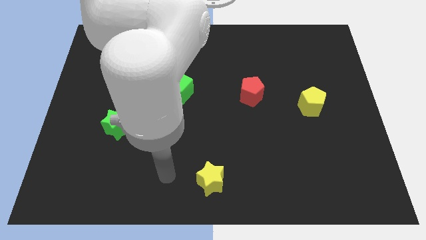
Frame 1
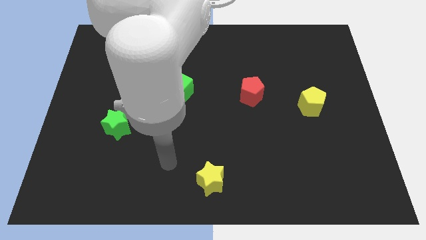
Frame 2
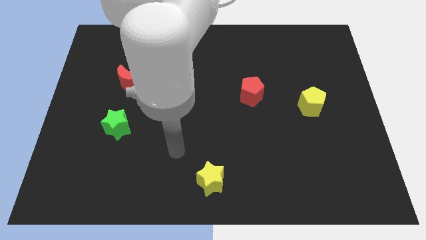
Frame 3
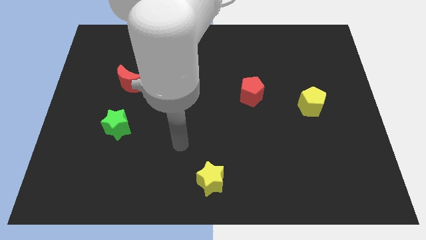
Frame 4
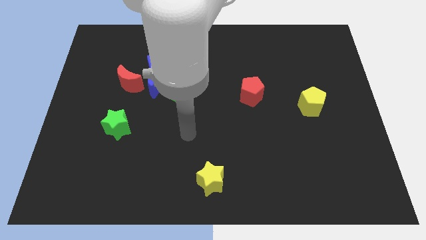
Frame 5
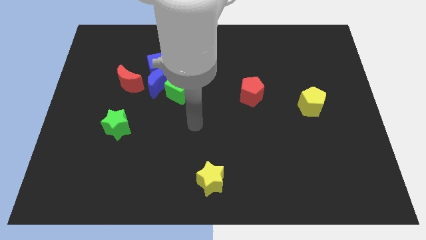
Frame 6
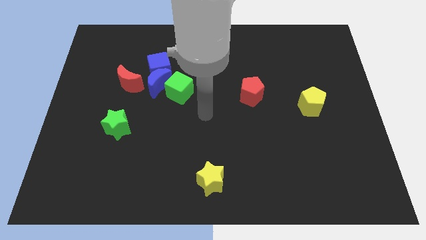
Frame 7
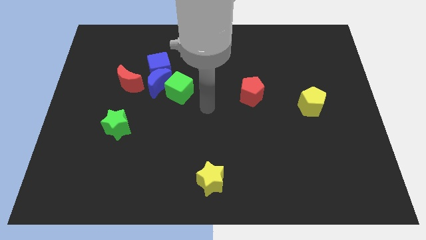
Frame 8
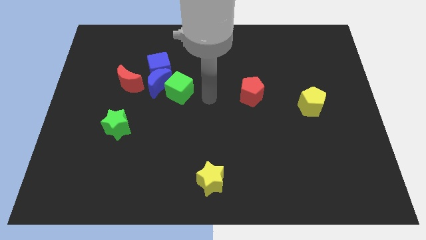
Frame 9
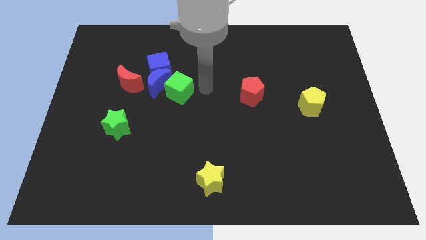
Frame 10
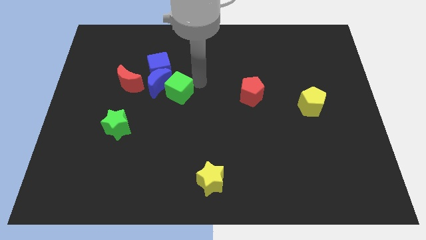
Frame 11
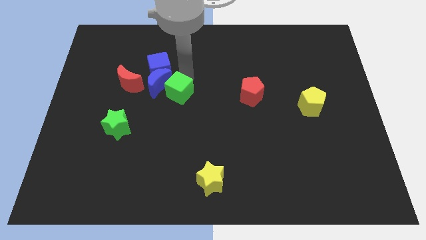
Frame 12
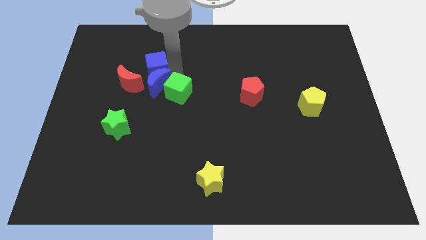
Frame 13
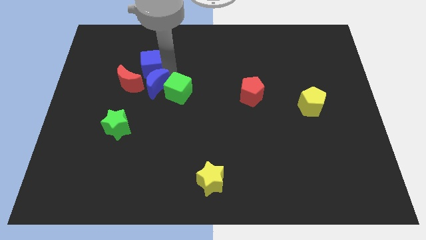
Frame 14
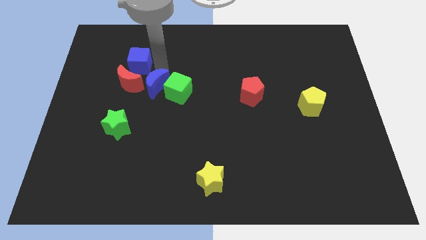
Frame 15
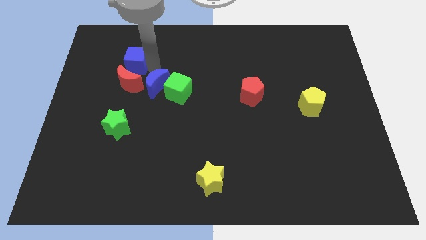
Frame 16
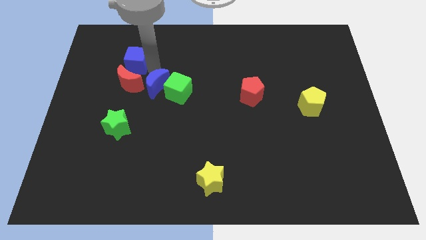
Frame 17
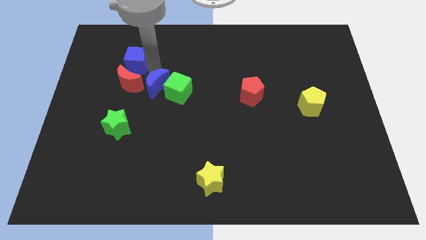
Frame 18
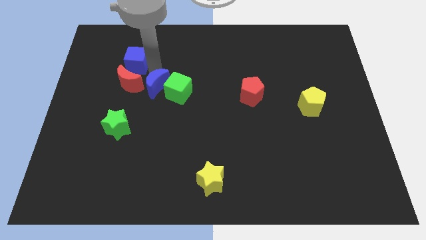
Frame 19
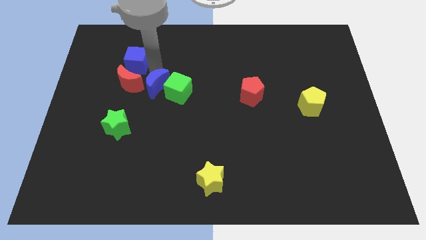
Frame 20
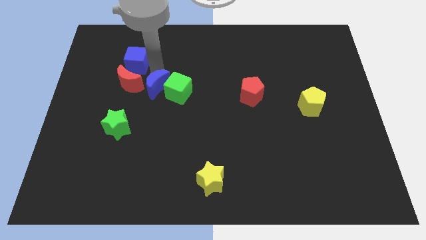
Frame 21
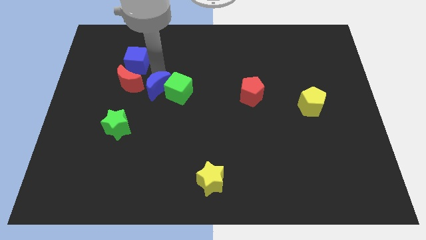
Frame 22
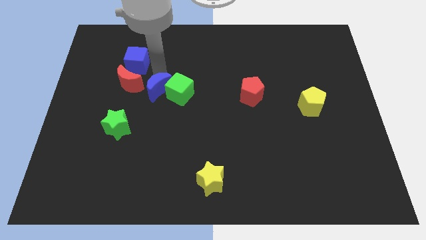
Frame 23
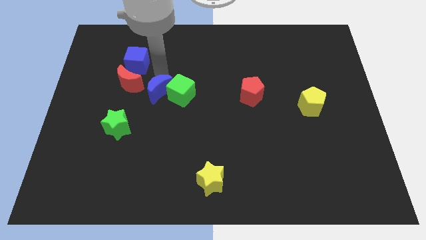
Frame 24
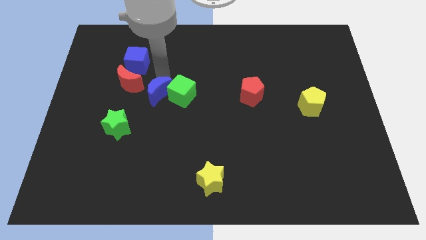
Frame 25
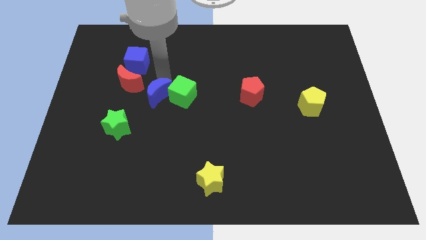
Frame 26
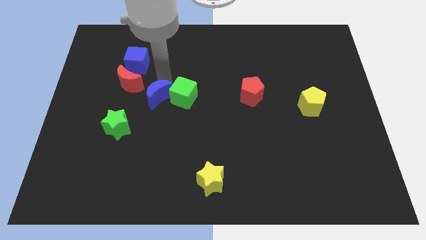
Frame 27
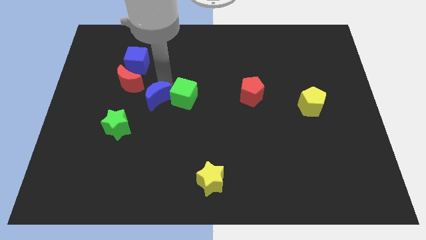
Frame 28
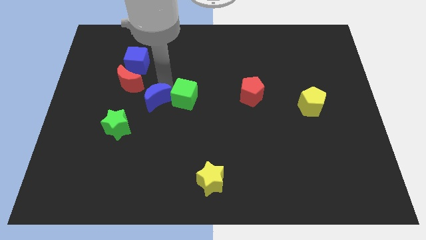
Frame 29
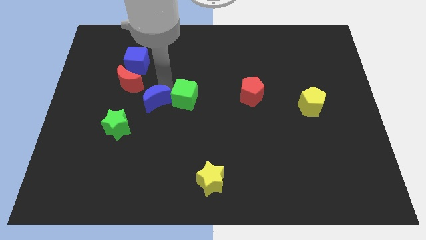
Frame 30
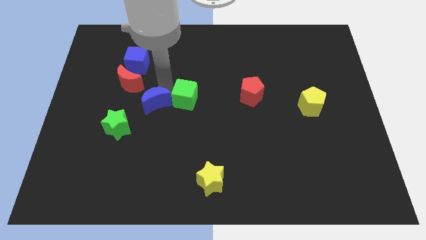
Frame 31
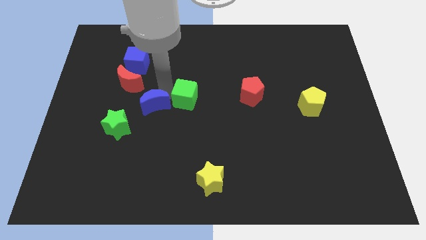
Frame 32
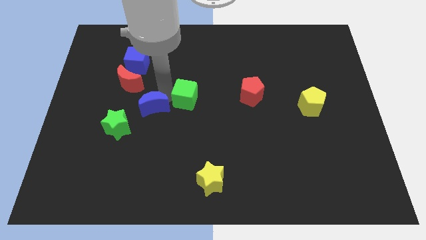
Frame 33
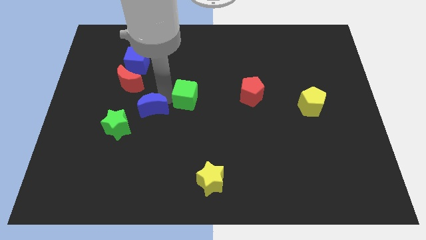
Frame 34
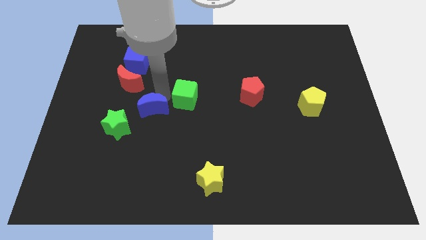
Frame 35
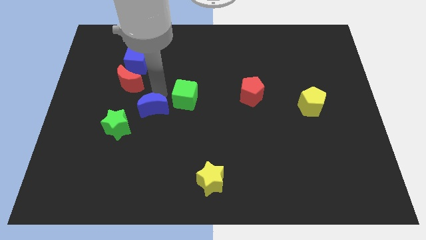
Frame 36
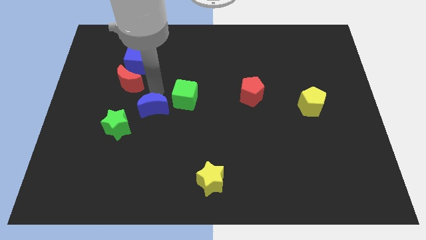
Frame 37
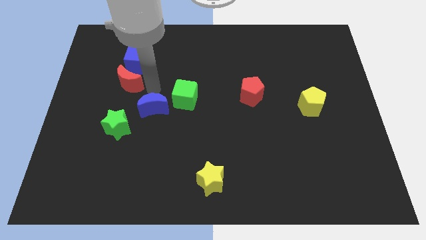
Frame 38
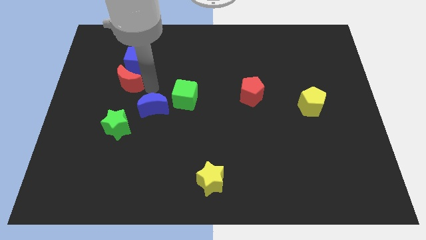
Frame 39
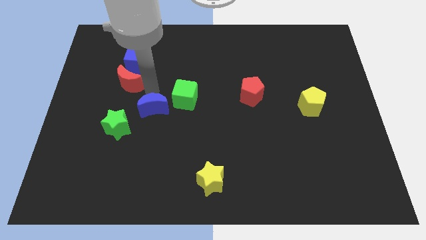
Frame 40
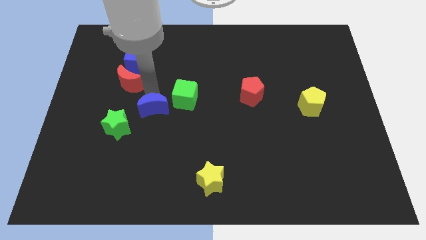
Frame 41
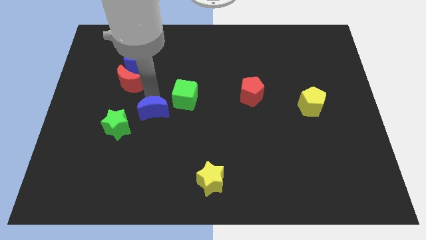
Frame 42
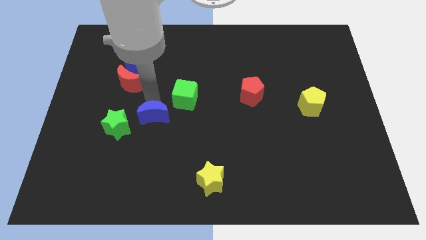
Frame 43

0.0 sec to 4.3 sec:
move the blue moon away from the clump

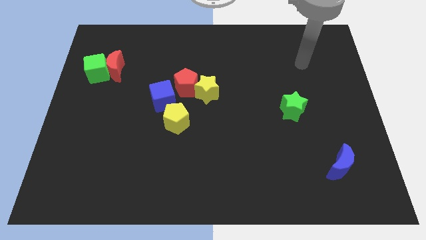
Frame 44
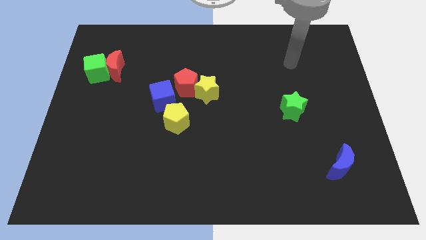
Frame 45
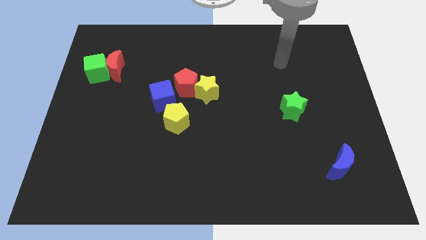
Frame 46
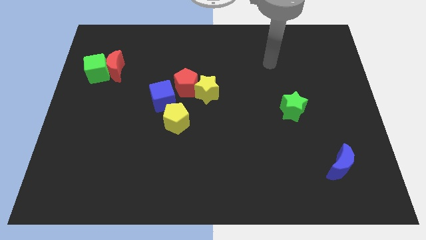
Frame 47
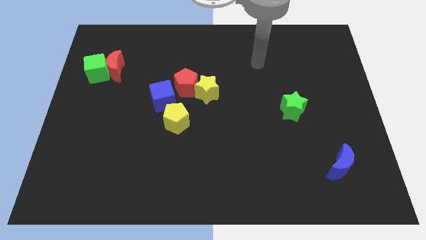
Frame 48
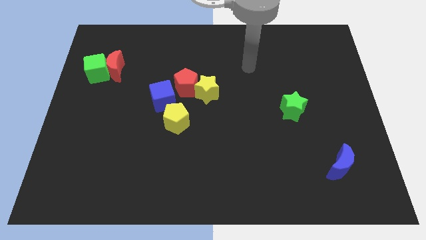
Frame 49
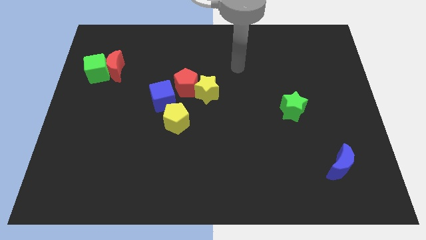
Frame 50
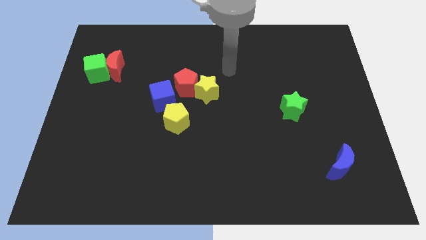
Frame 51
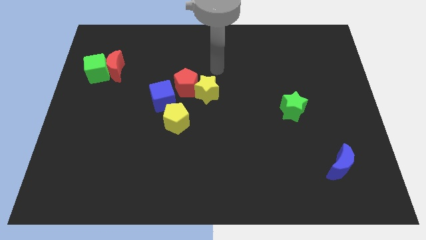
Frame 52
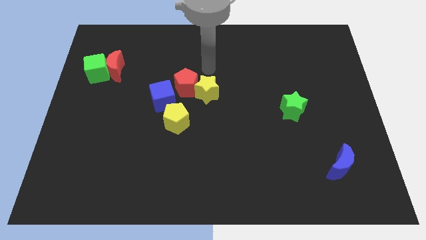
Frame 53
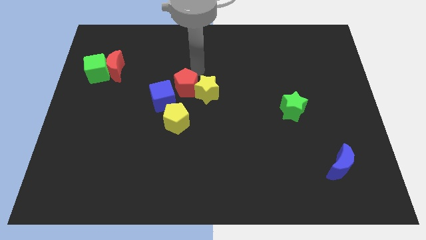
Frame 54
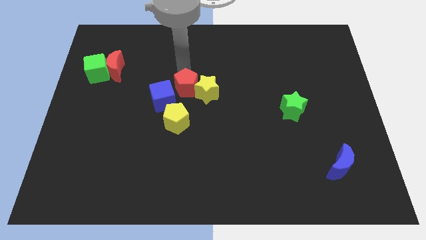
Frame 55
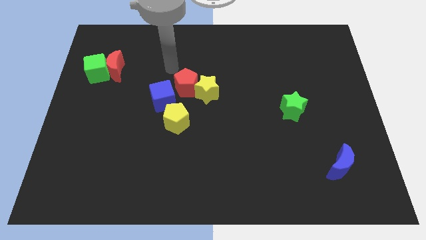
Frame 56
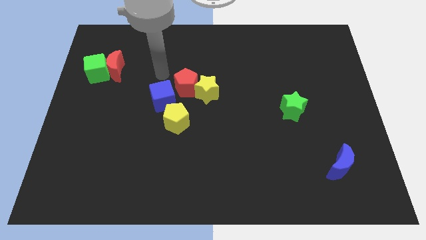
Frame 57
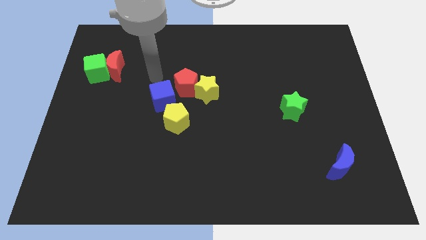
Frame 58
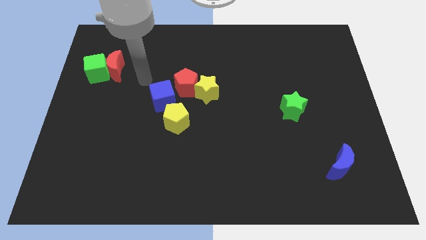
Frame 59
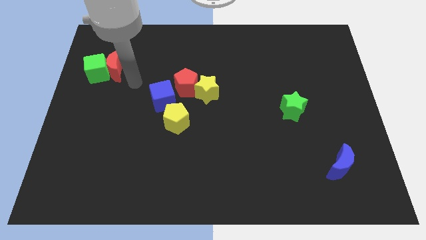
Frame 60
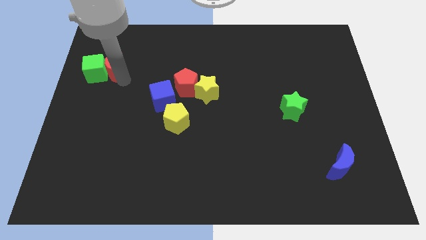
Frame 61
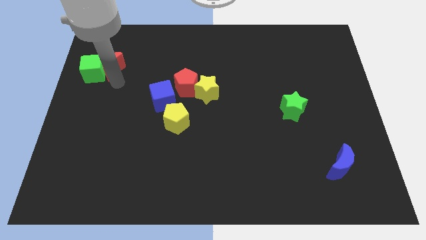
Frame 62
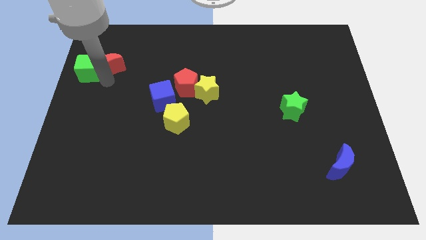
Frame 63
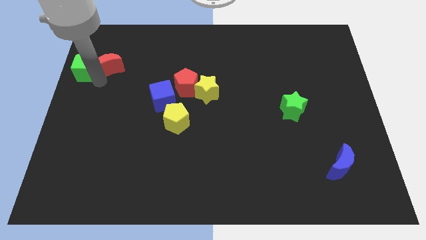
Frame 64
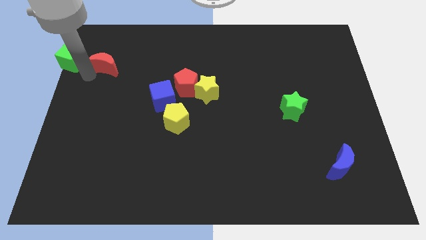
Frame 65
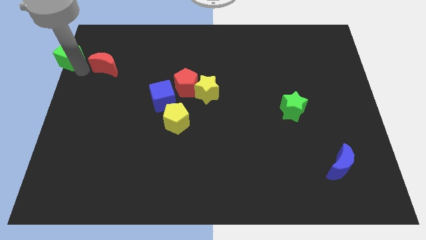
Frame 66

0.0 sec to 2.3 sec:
pull the red moon apart from the green cube

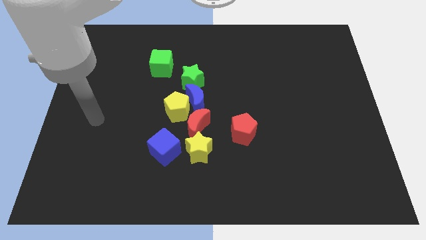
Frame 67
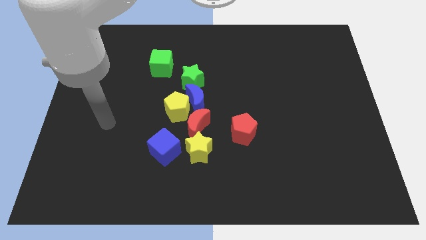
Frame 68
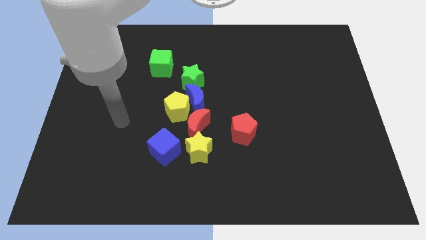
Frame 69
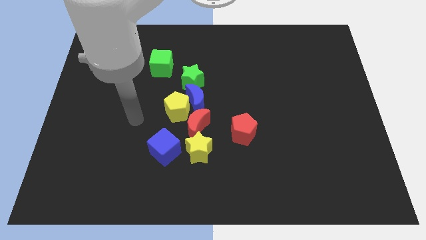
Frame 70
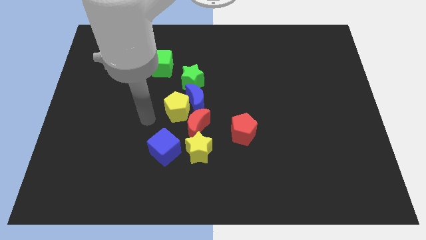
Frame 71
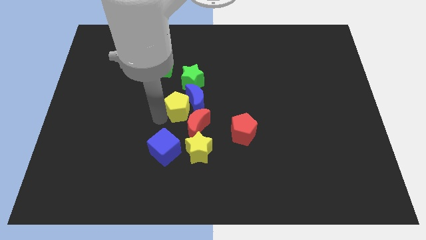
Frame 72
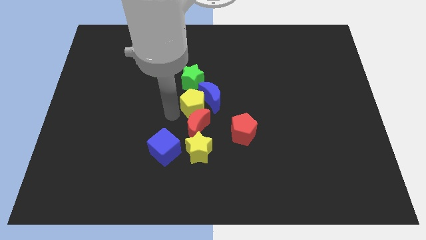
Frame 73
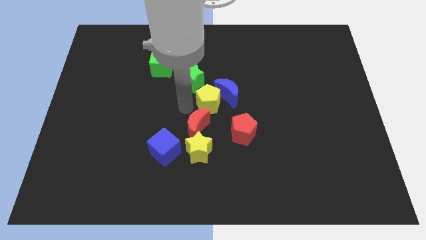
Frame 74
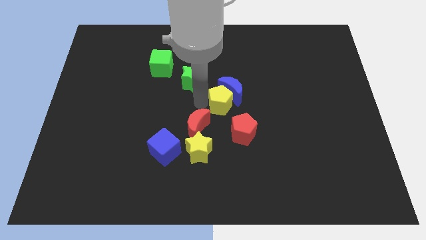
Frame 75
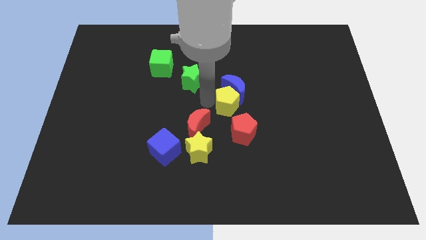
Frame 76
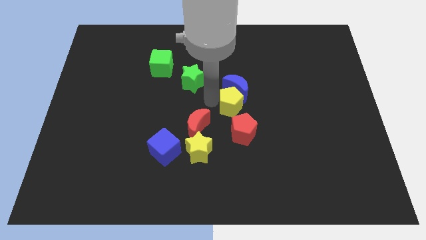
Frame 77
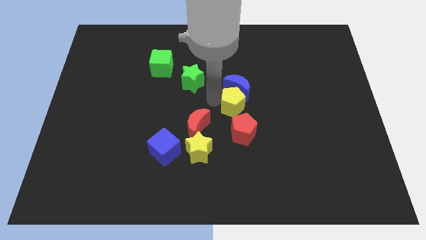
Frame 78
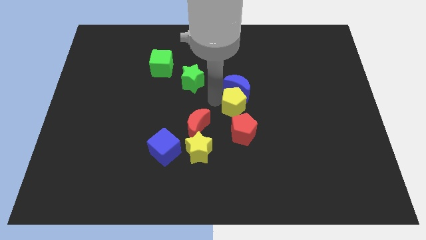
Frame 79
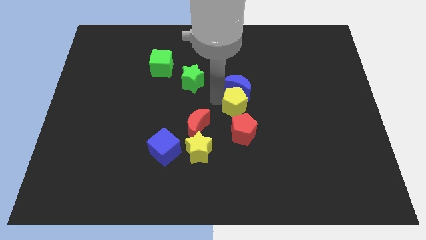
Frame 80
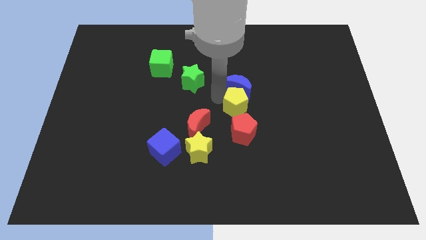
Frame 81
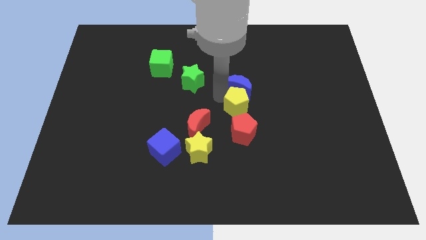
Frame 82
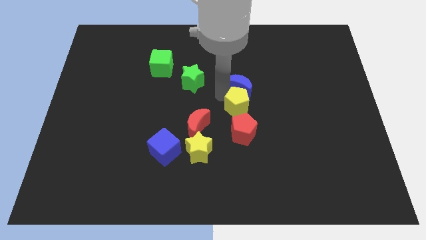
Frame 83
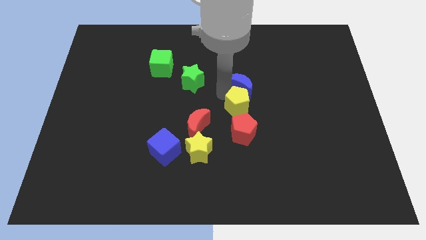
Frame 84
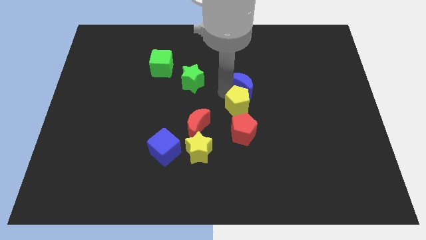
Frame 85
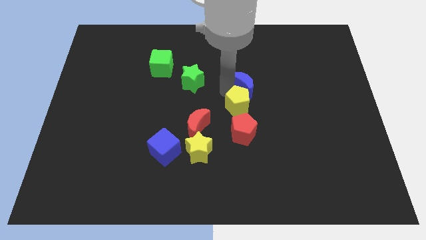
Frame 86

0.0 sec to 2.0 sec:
move the blue moon away from the yellow pentagon, green star, and red moon

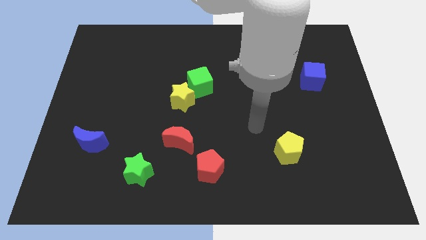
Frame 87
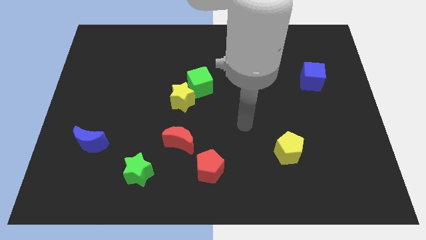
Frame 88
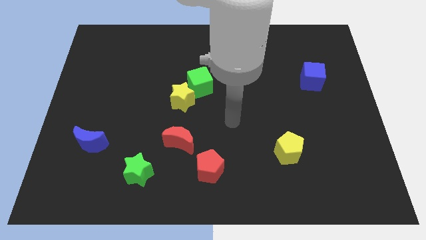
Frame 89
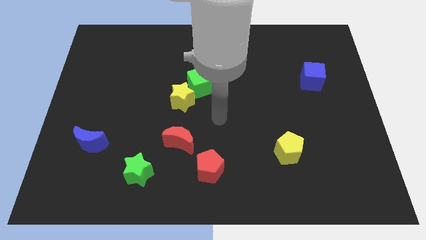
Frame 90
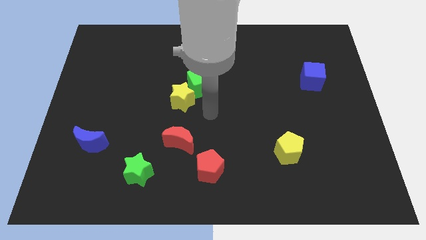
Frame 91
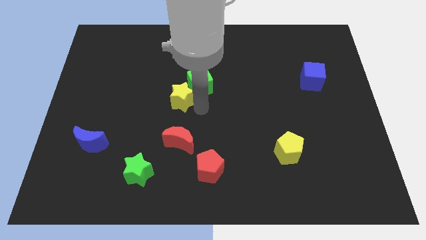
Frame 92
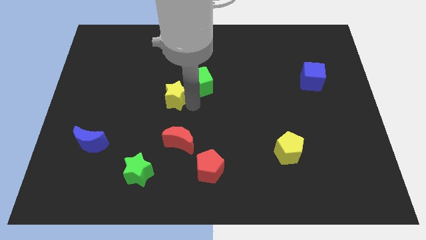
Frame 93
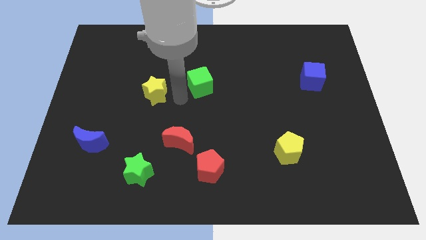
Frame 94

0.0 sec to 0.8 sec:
separate the green cube from the yellow star

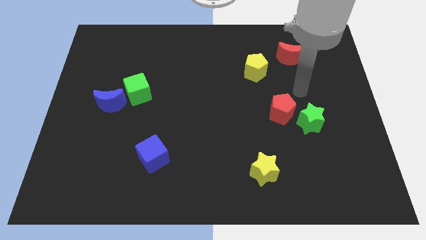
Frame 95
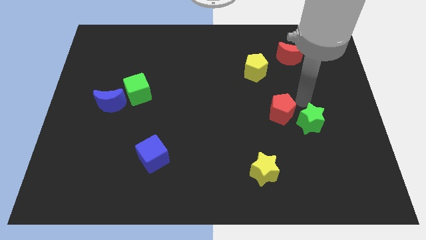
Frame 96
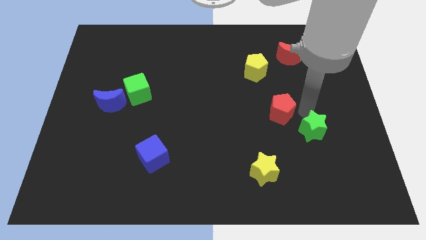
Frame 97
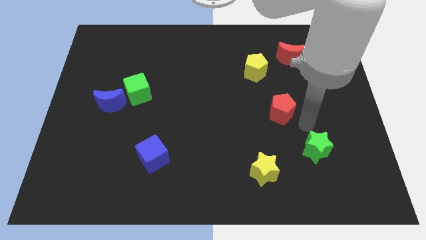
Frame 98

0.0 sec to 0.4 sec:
move the red pentagon away from the green star
